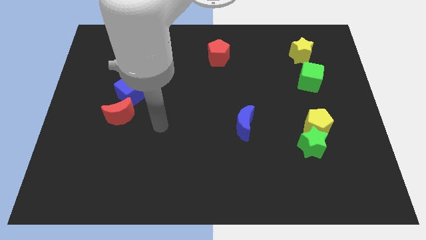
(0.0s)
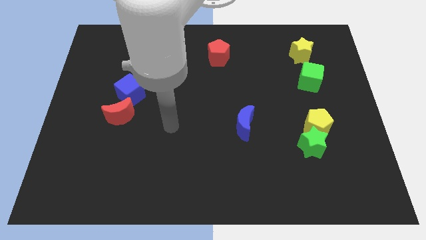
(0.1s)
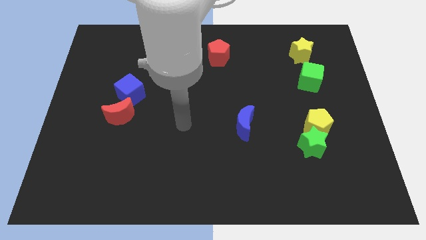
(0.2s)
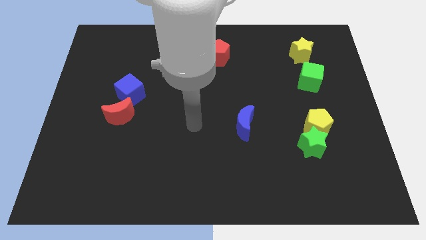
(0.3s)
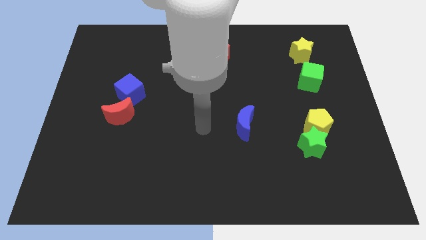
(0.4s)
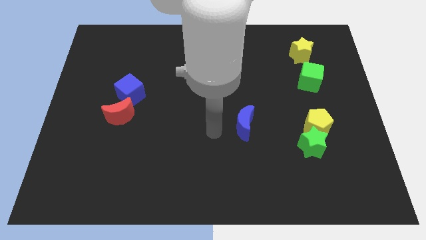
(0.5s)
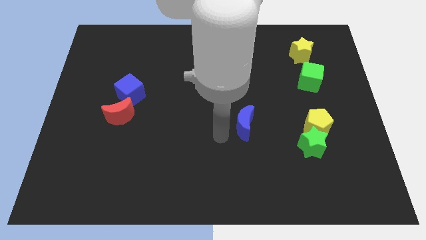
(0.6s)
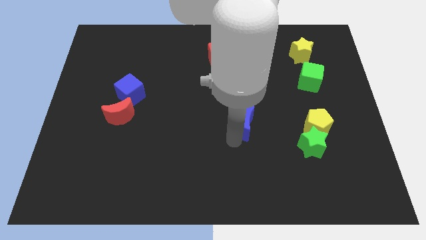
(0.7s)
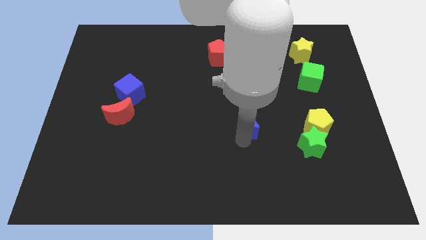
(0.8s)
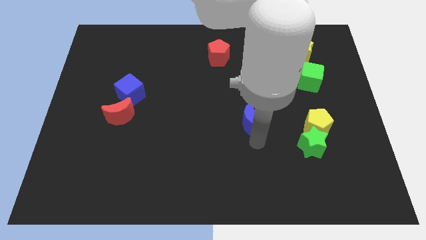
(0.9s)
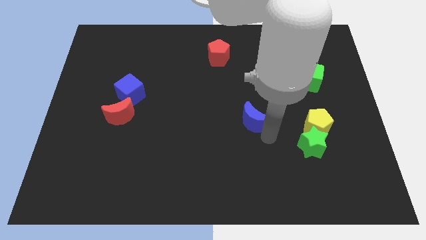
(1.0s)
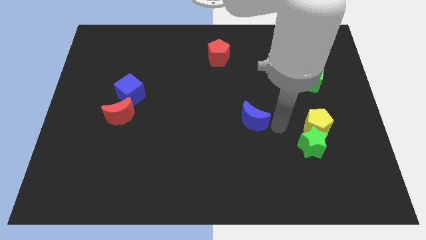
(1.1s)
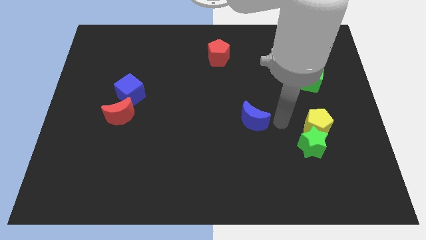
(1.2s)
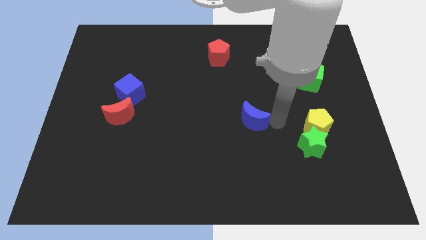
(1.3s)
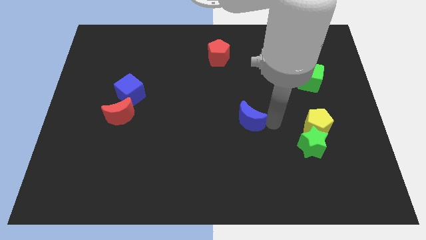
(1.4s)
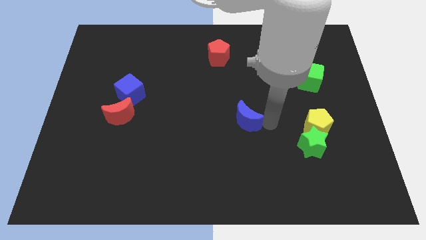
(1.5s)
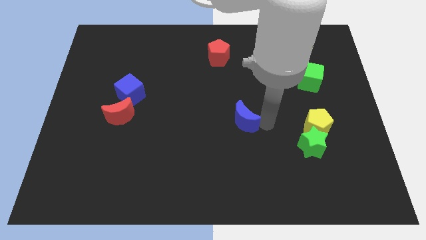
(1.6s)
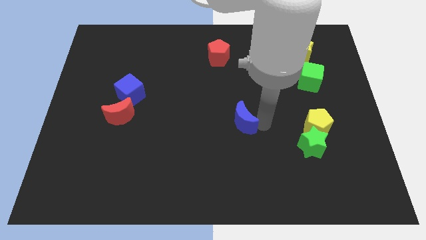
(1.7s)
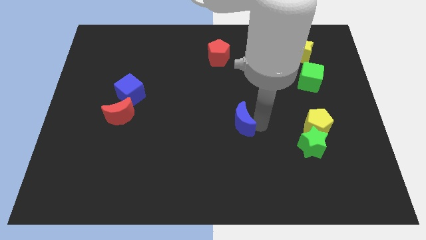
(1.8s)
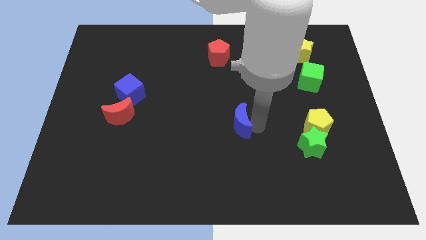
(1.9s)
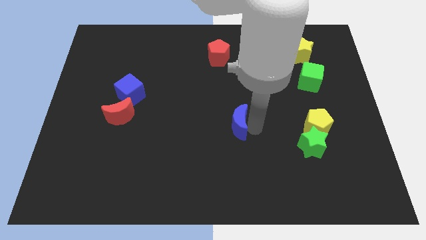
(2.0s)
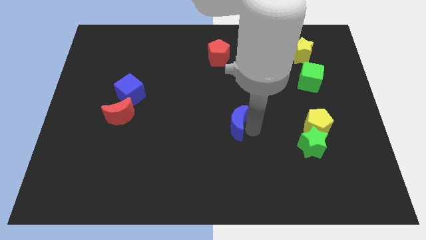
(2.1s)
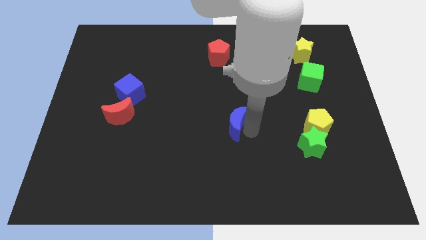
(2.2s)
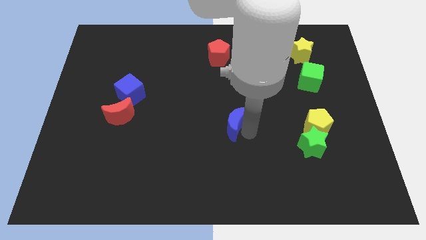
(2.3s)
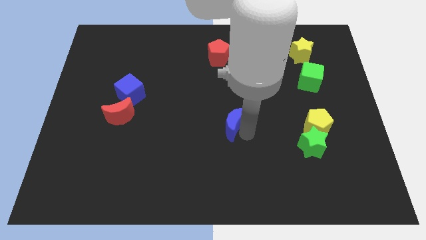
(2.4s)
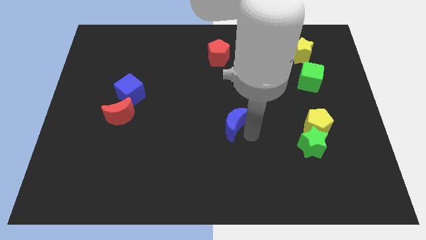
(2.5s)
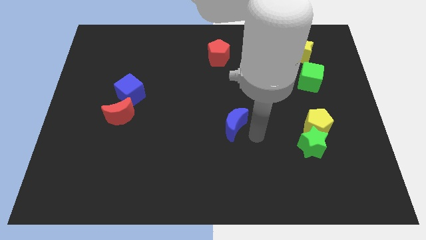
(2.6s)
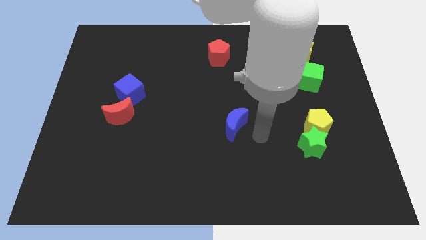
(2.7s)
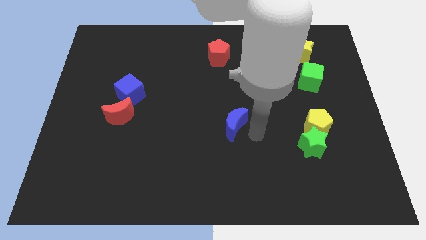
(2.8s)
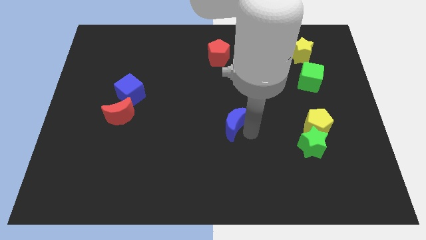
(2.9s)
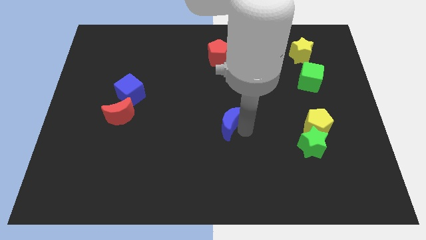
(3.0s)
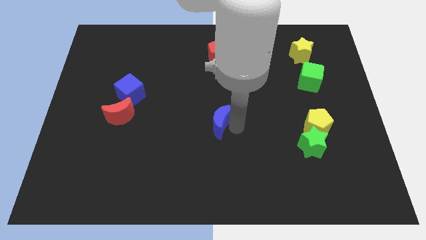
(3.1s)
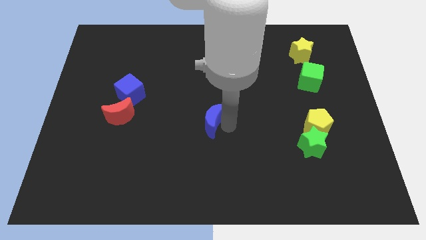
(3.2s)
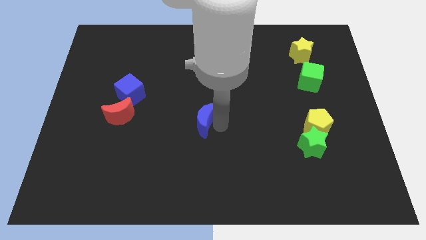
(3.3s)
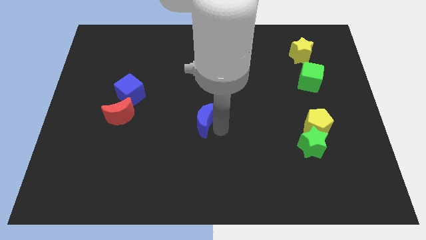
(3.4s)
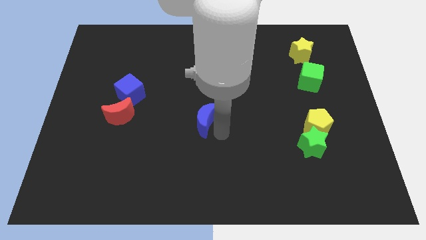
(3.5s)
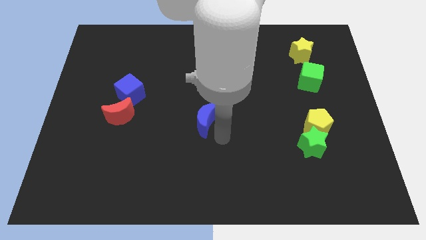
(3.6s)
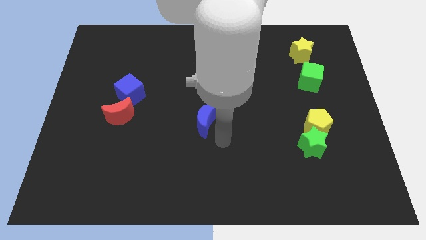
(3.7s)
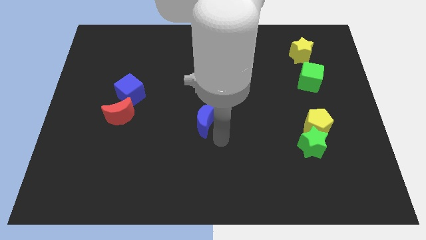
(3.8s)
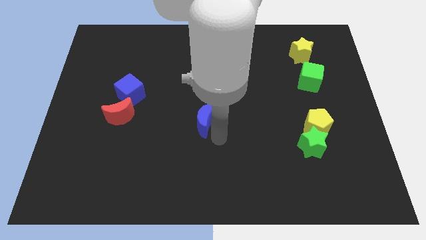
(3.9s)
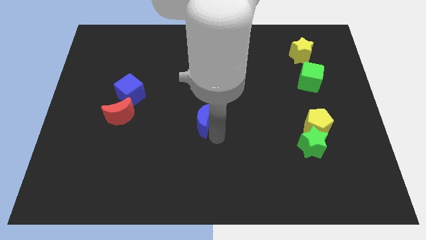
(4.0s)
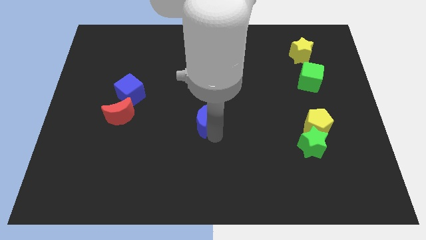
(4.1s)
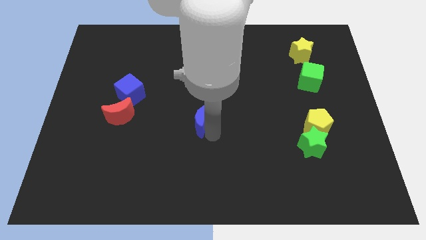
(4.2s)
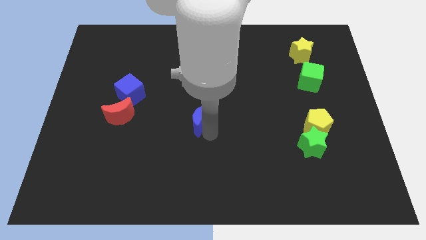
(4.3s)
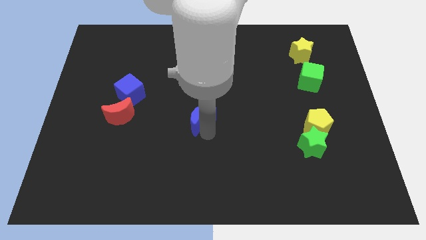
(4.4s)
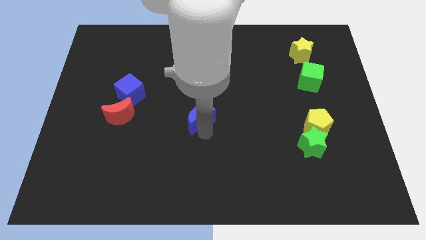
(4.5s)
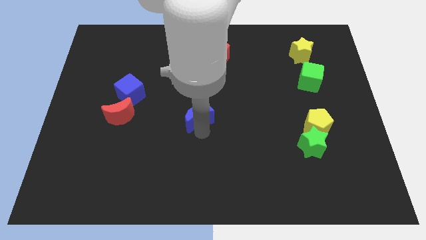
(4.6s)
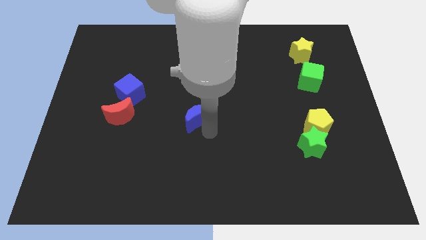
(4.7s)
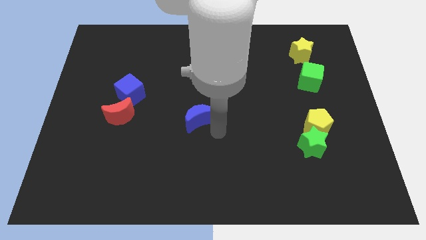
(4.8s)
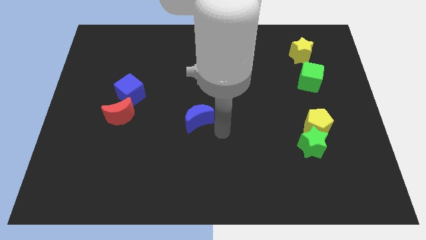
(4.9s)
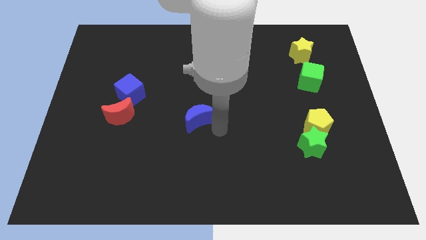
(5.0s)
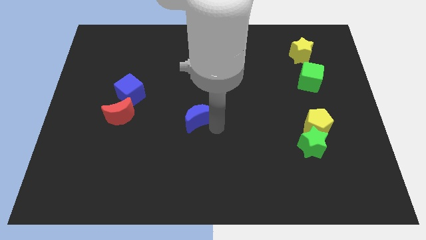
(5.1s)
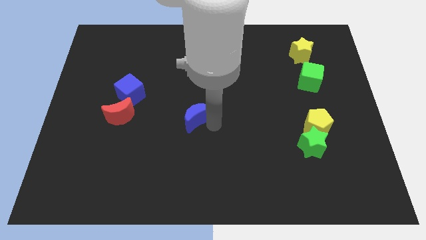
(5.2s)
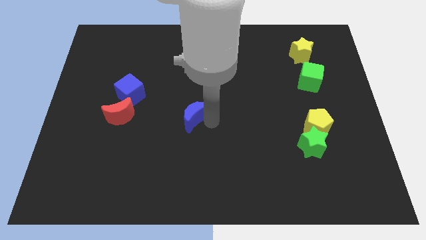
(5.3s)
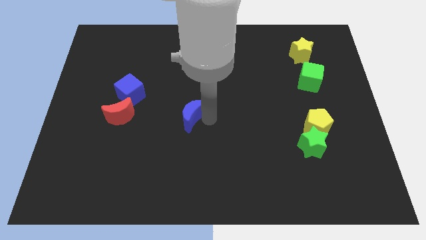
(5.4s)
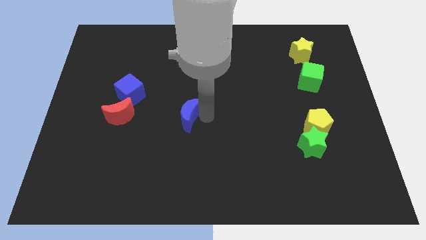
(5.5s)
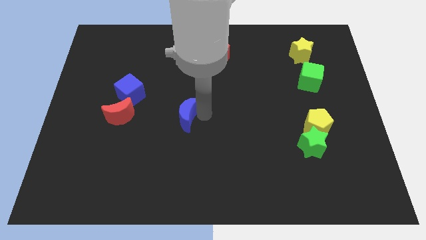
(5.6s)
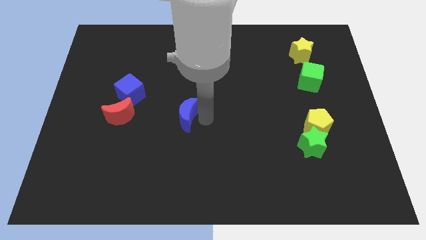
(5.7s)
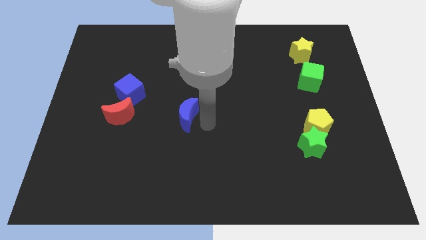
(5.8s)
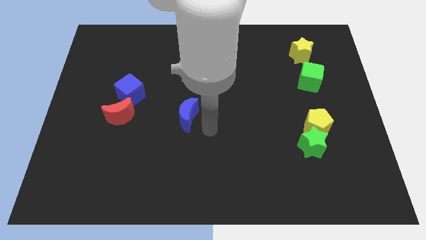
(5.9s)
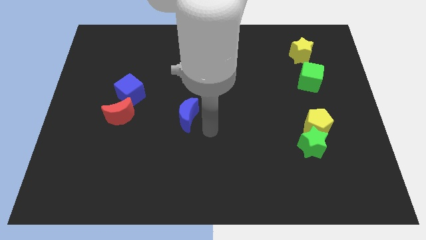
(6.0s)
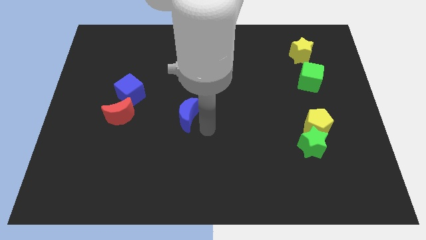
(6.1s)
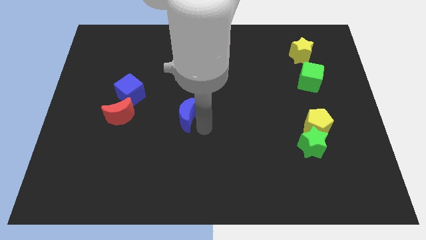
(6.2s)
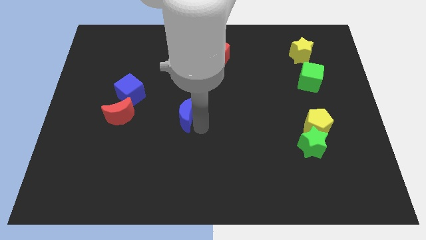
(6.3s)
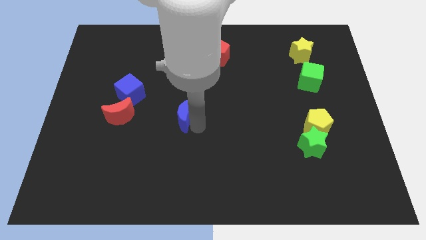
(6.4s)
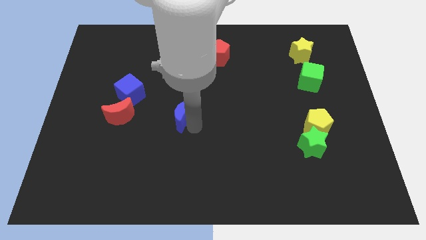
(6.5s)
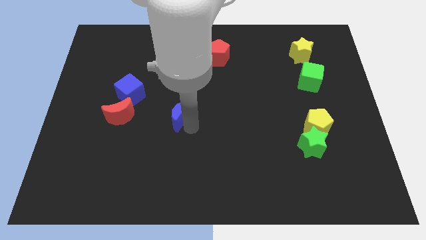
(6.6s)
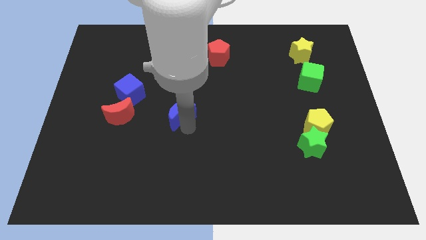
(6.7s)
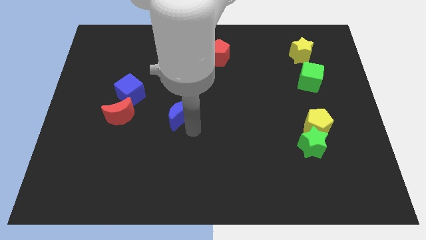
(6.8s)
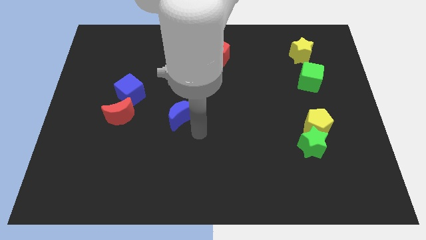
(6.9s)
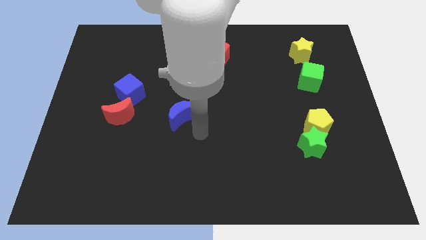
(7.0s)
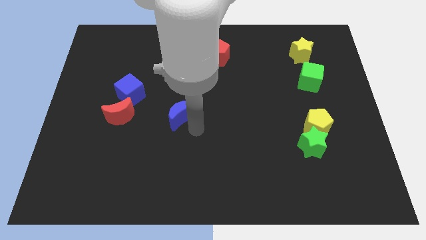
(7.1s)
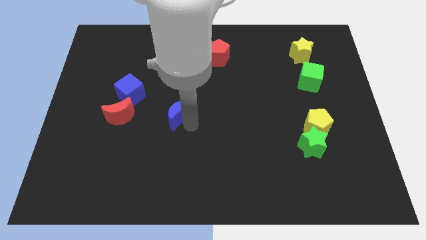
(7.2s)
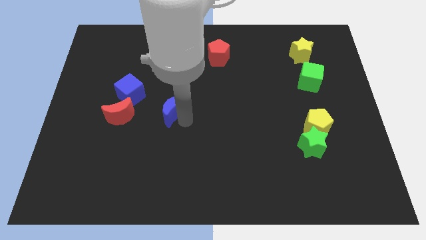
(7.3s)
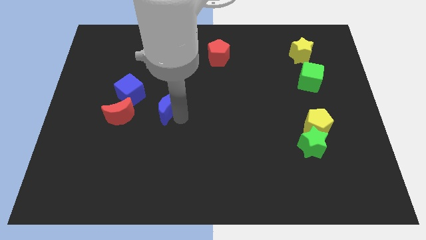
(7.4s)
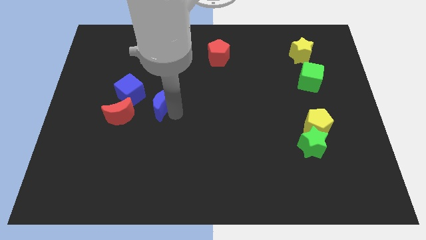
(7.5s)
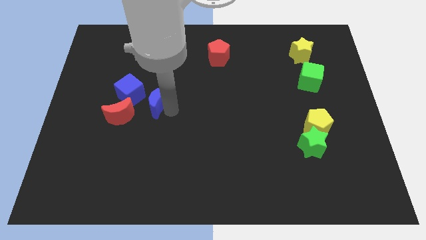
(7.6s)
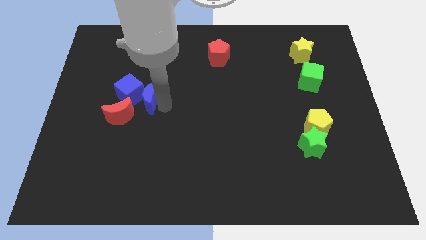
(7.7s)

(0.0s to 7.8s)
move the blue moon towards the blue cube
